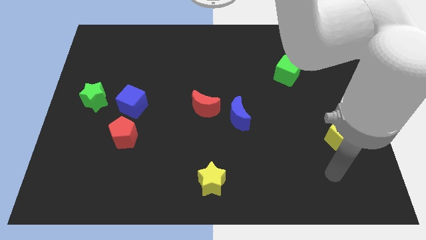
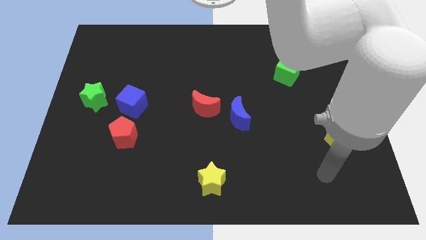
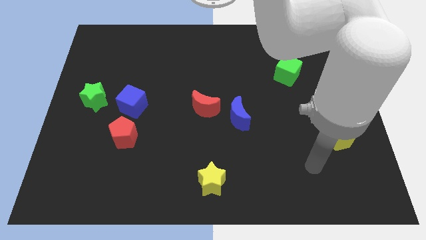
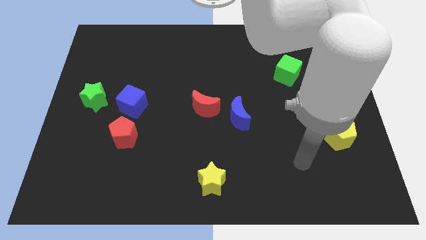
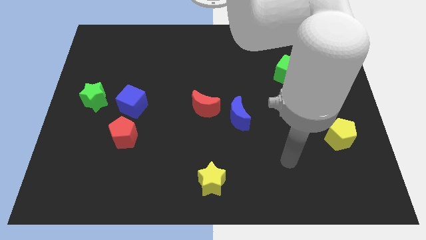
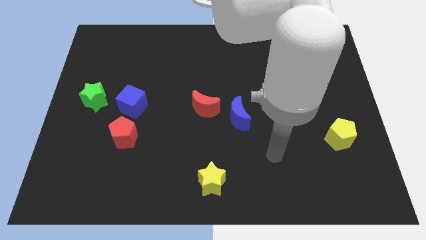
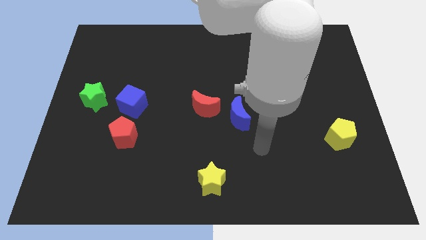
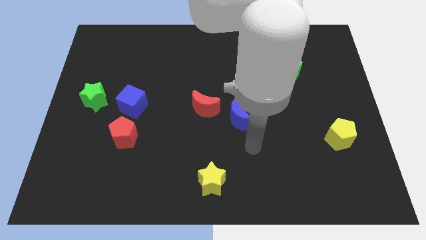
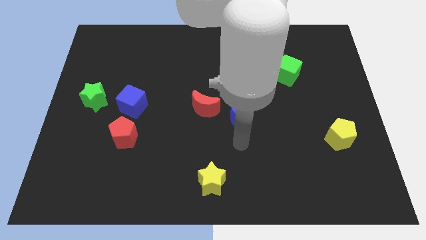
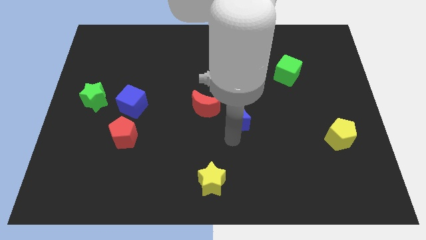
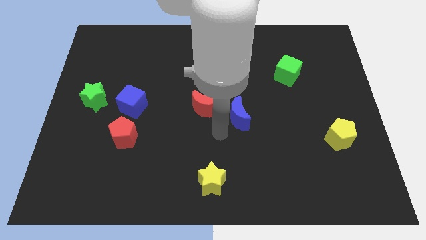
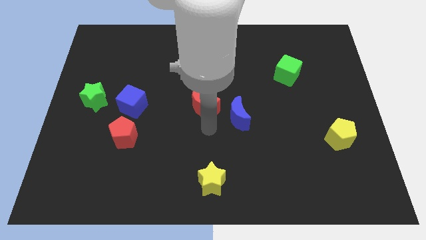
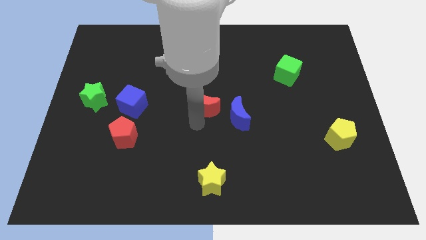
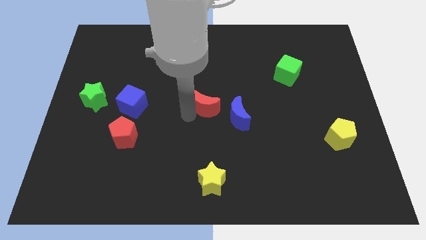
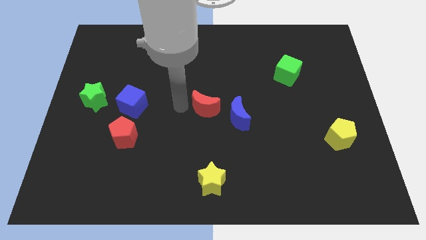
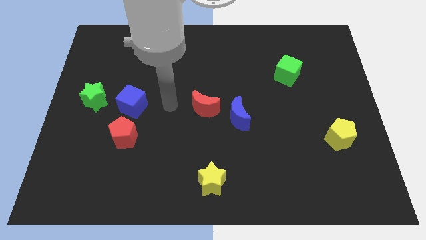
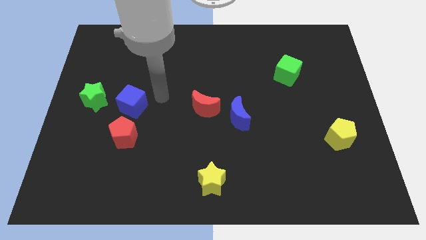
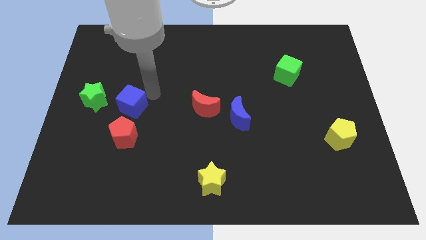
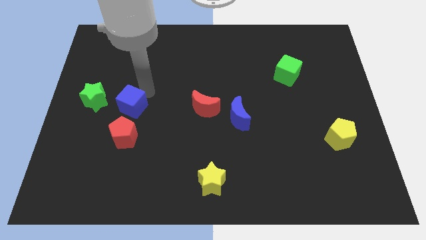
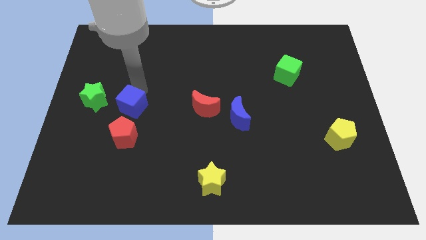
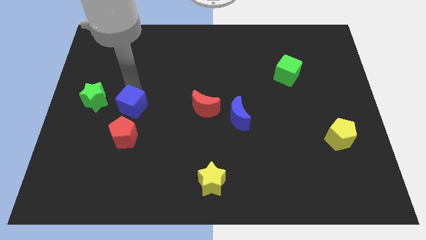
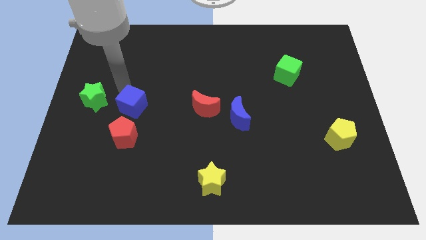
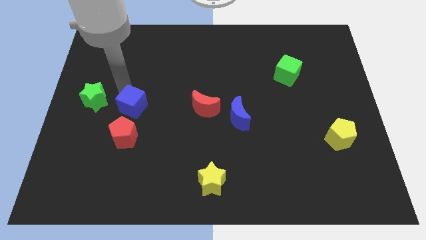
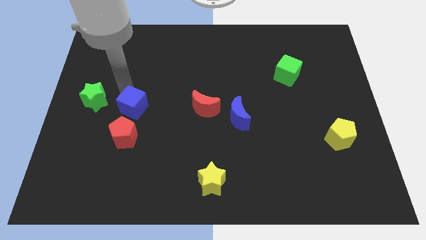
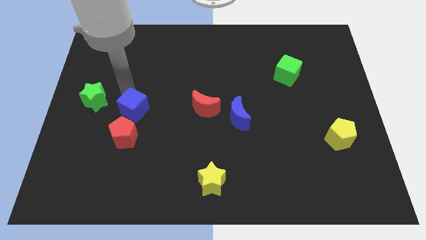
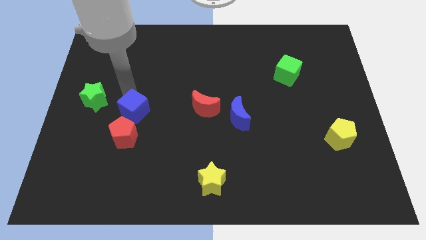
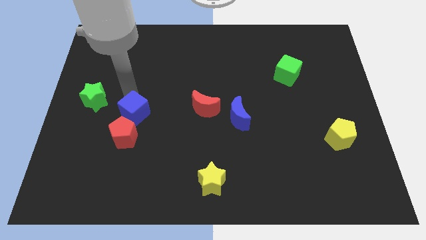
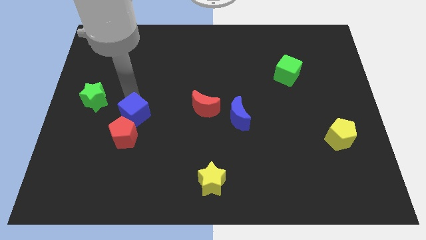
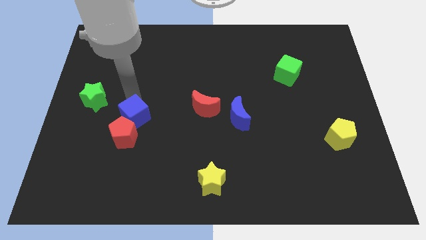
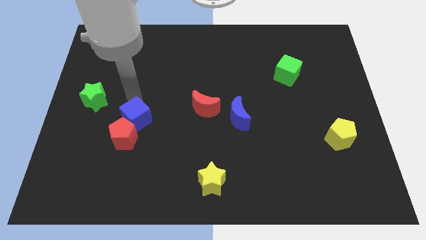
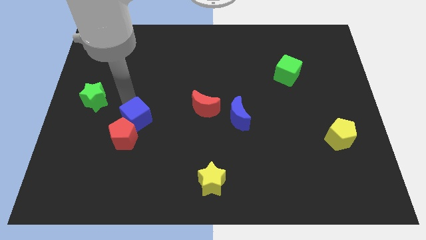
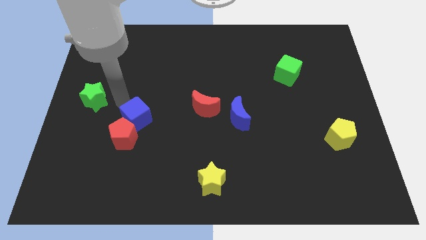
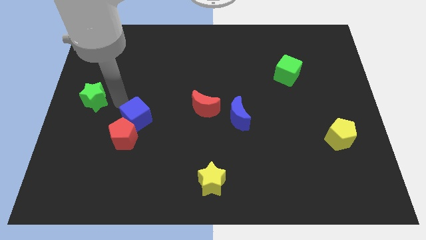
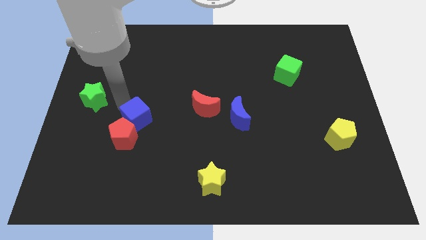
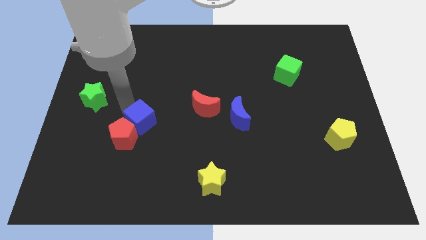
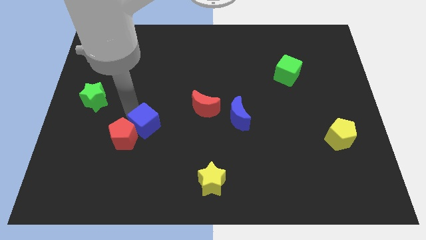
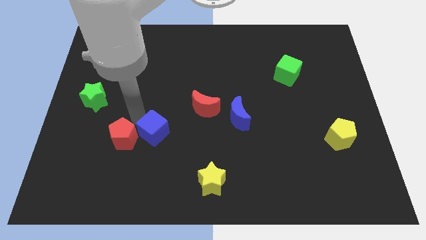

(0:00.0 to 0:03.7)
push the blue cube down and to the right diagonally somewhat

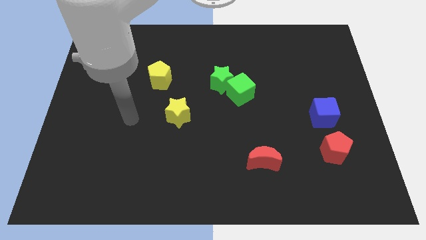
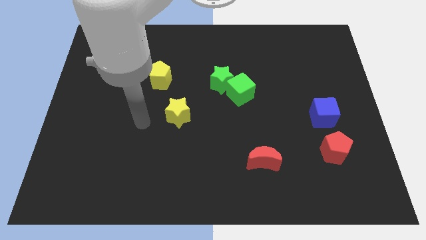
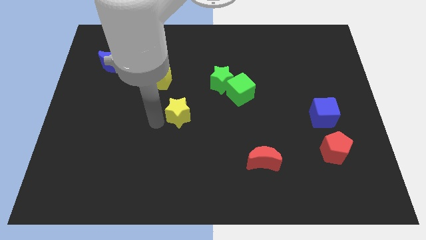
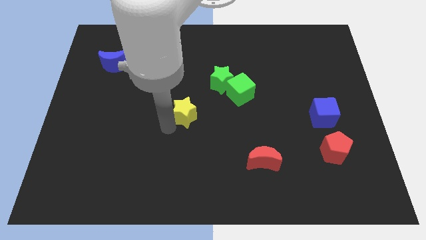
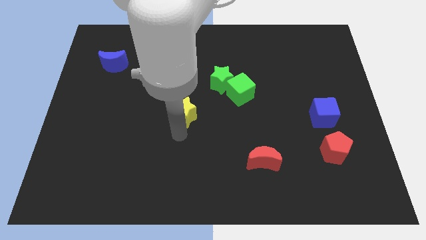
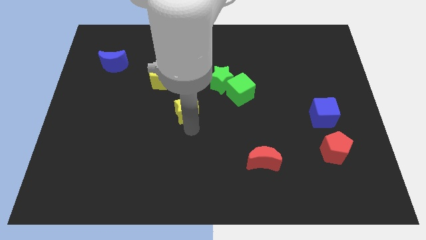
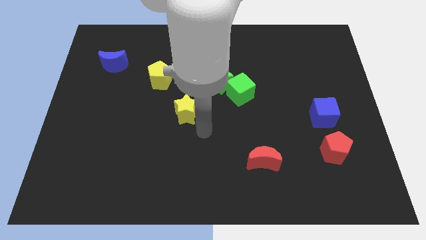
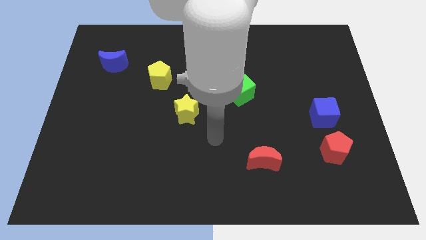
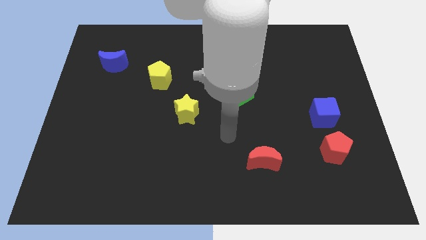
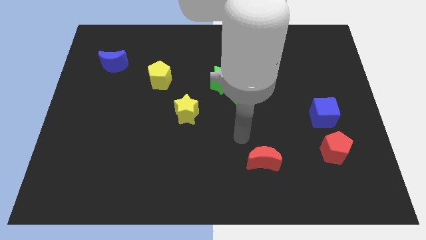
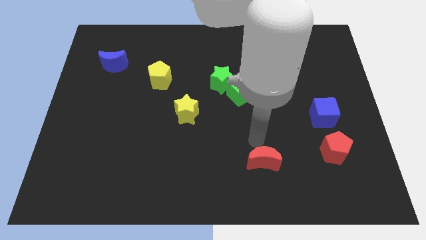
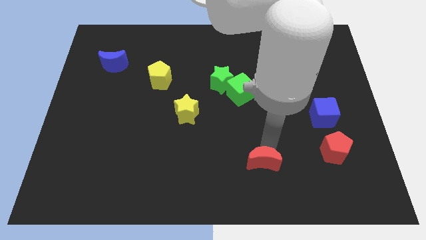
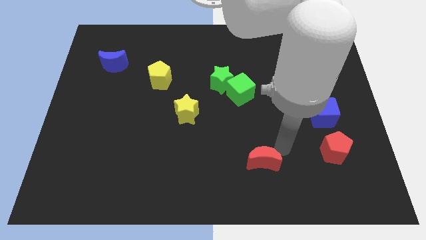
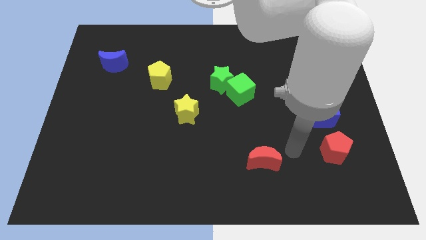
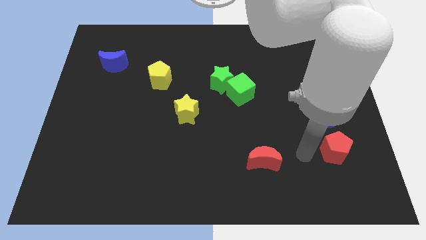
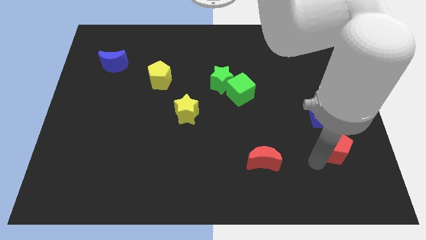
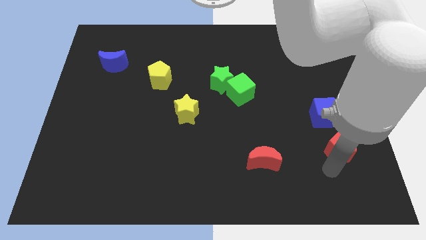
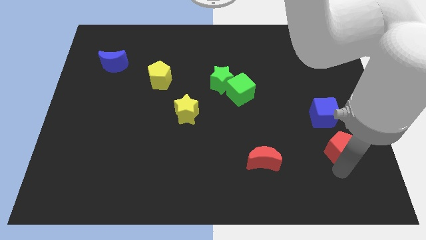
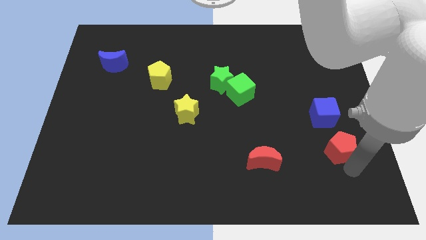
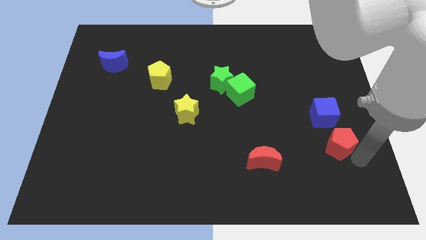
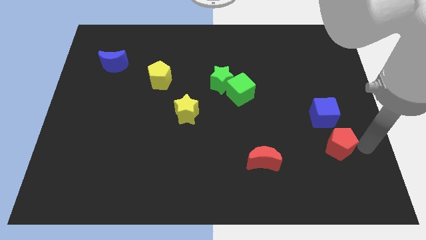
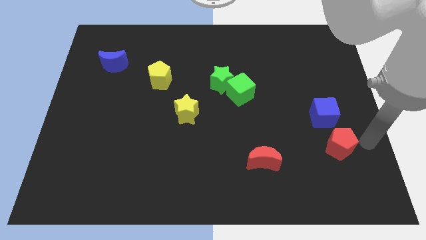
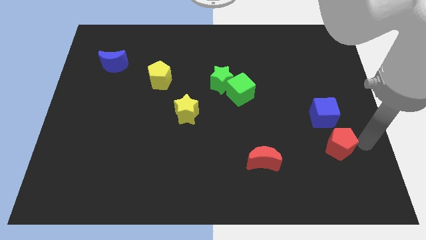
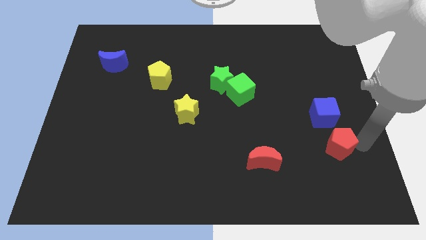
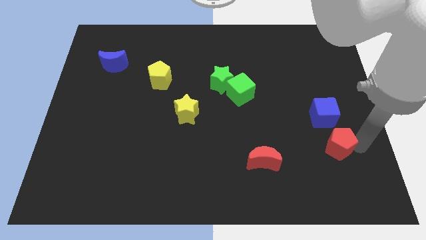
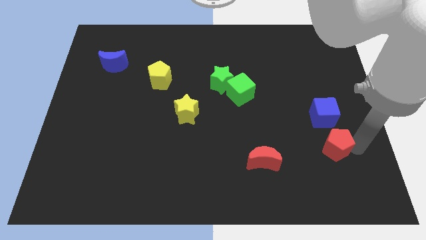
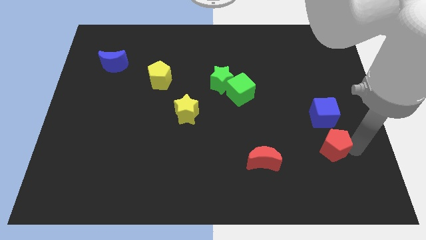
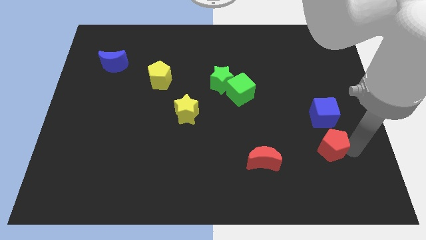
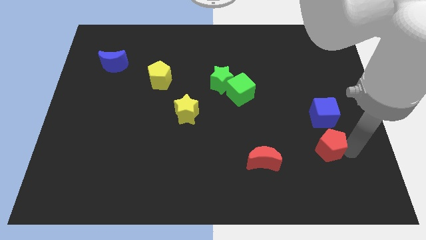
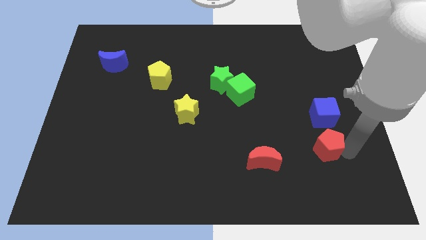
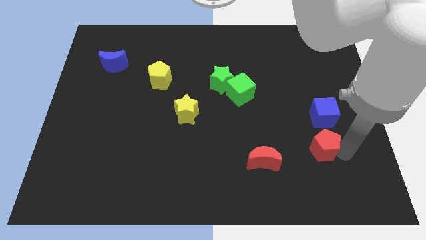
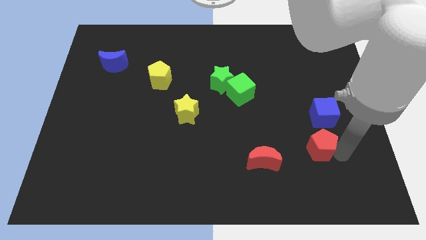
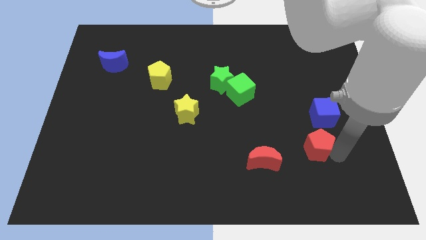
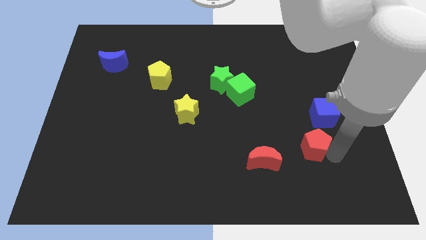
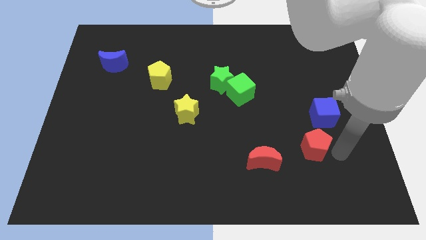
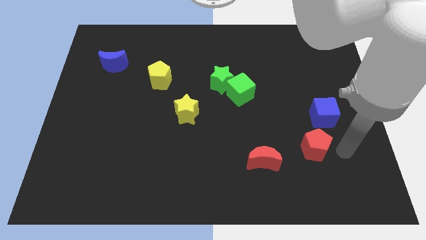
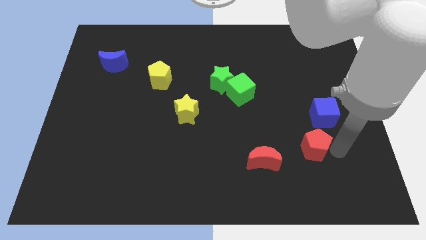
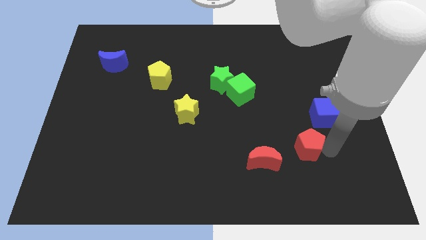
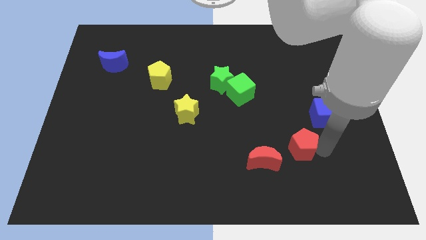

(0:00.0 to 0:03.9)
move the red pentagon somewhat to the left

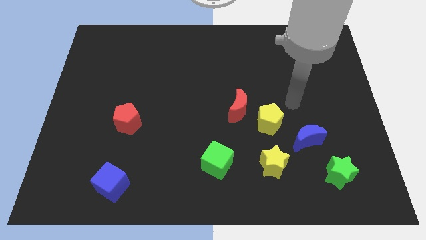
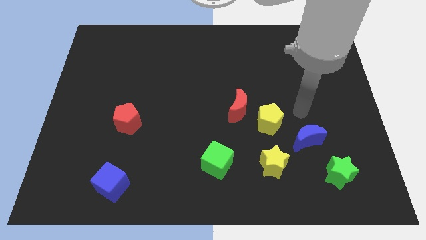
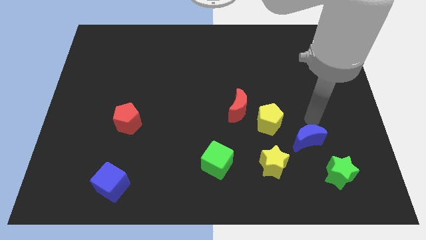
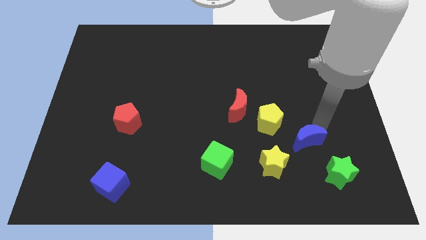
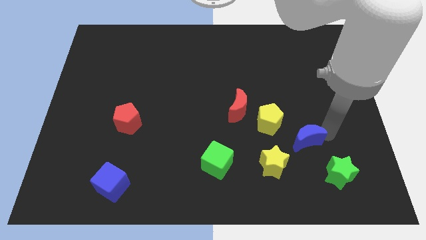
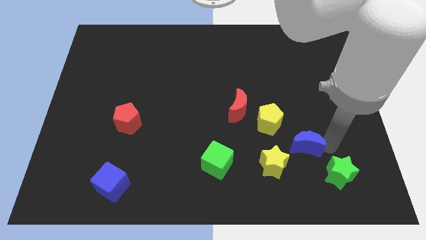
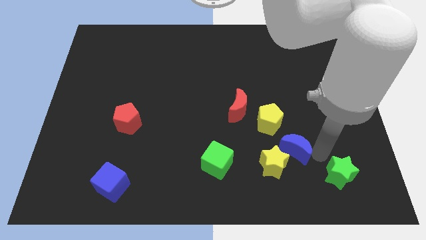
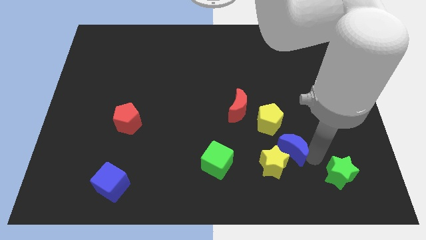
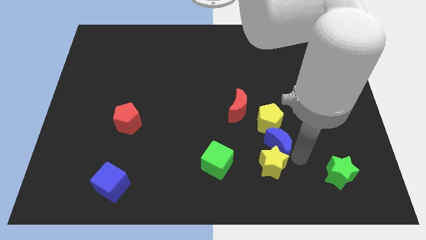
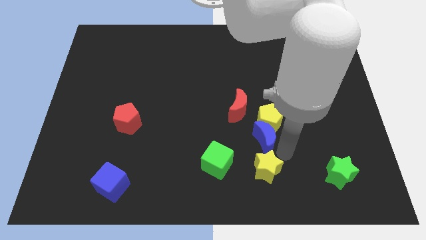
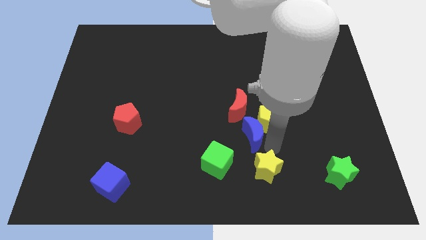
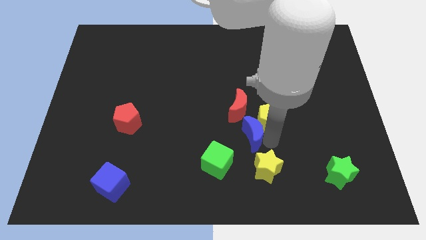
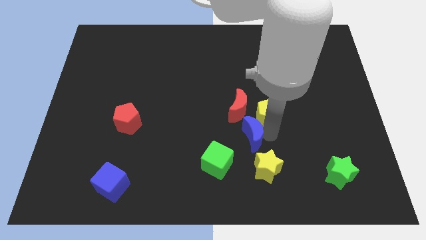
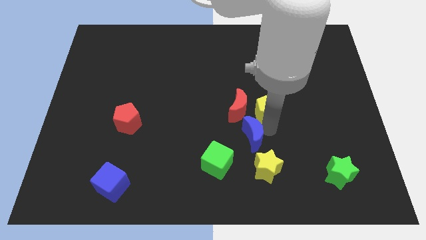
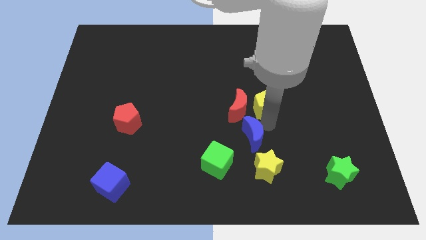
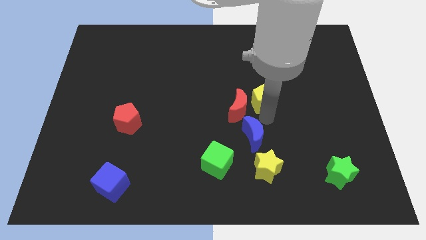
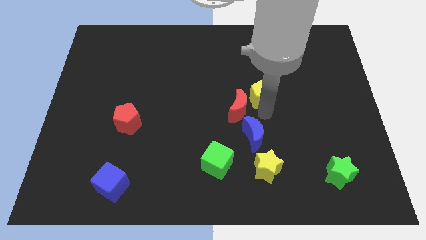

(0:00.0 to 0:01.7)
slide the yellow pentagon a bit upwards
